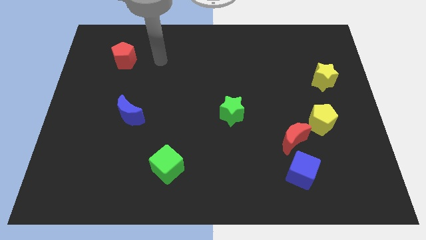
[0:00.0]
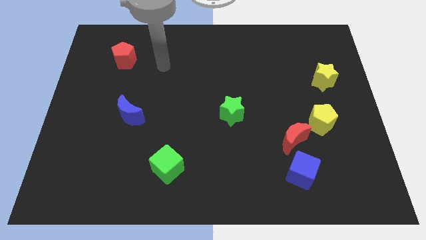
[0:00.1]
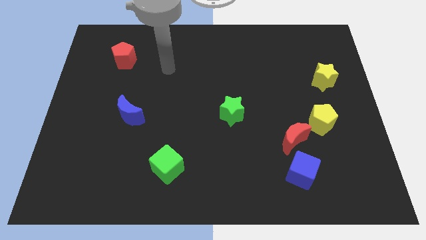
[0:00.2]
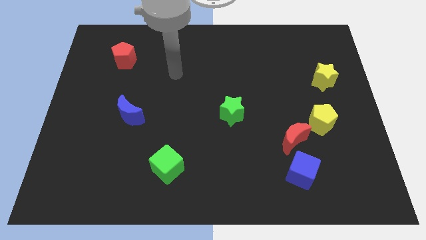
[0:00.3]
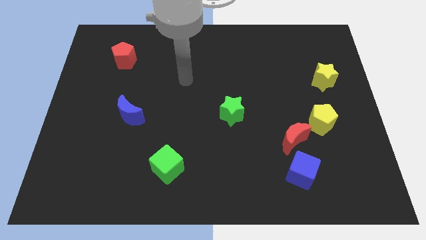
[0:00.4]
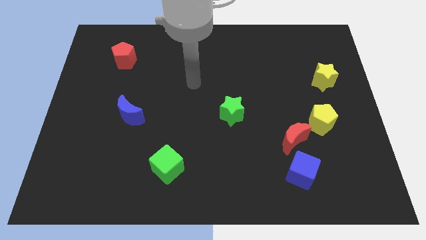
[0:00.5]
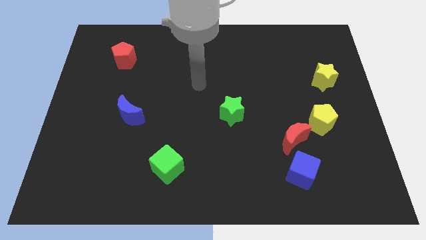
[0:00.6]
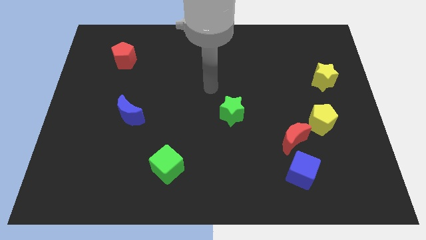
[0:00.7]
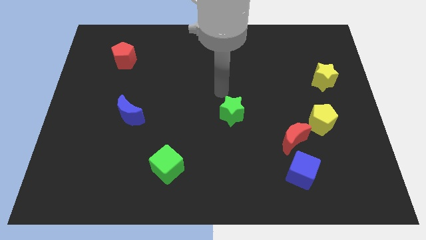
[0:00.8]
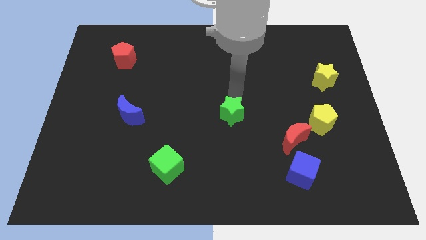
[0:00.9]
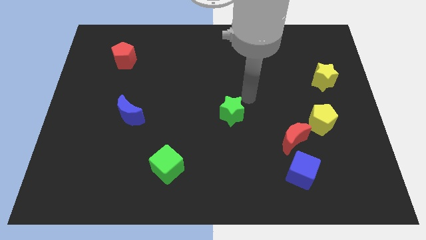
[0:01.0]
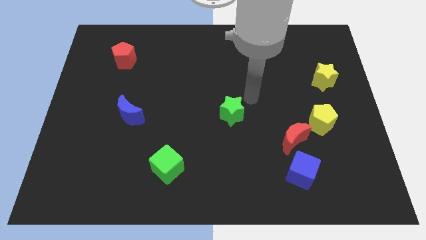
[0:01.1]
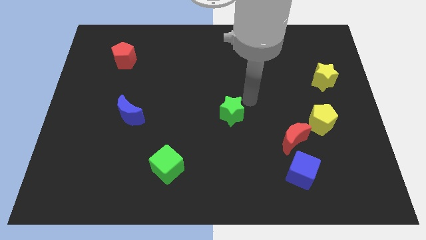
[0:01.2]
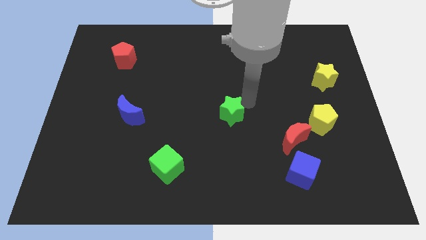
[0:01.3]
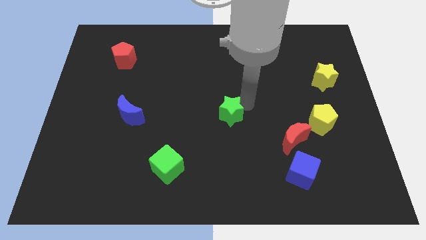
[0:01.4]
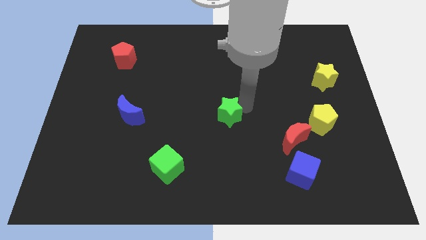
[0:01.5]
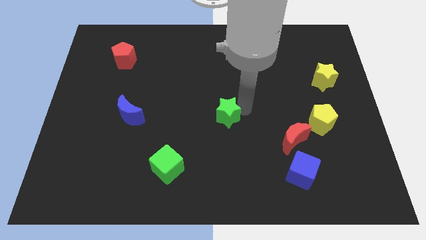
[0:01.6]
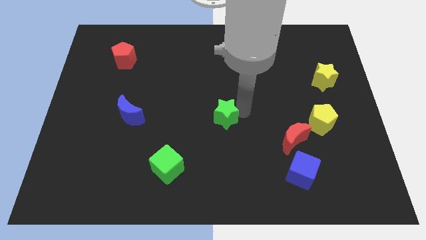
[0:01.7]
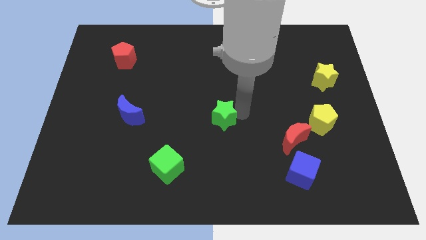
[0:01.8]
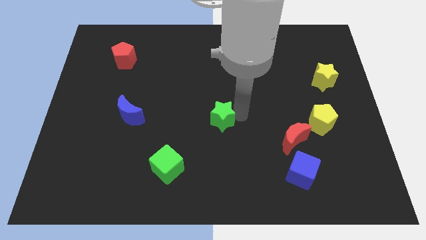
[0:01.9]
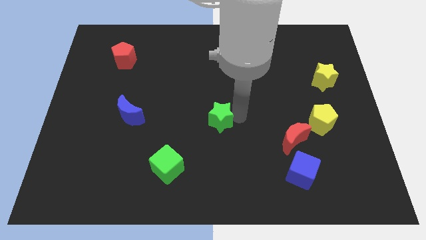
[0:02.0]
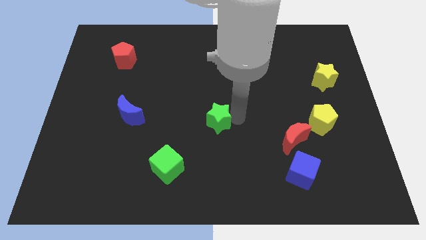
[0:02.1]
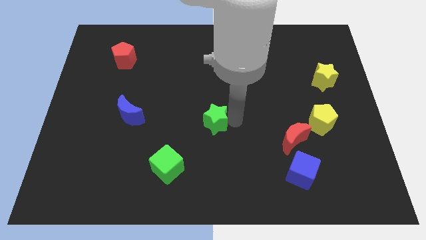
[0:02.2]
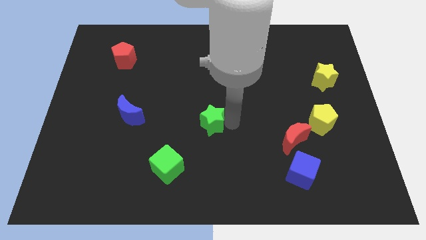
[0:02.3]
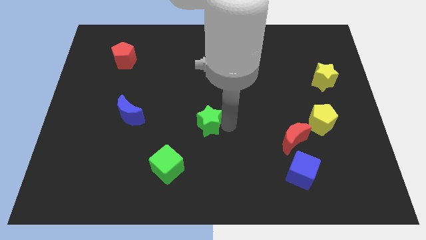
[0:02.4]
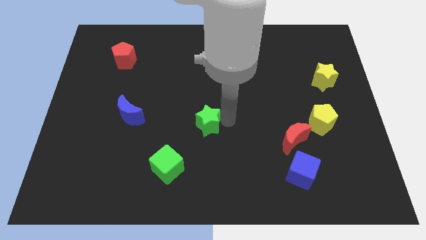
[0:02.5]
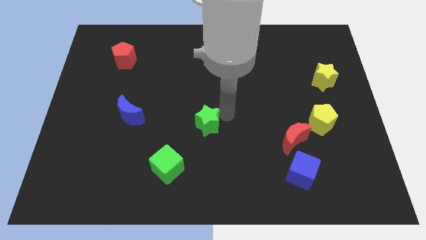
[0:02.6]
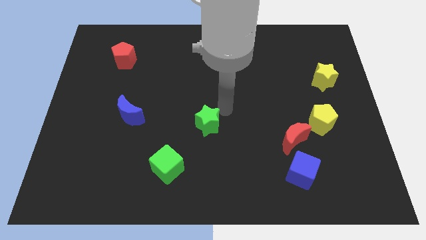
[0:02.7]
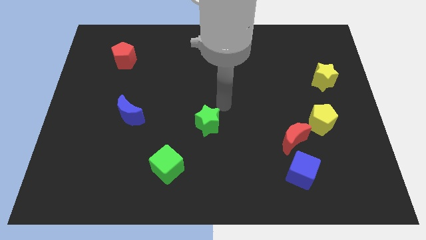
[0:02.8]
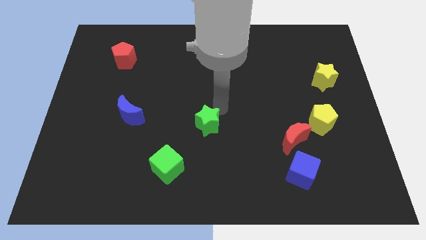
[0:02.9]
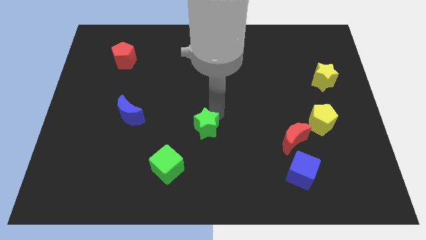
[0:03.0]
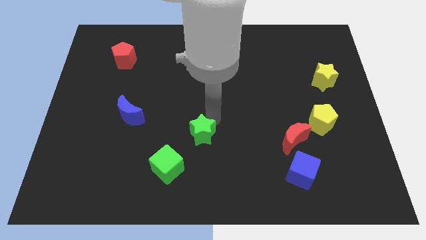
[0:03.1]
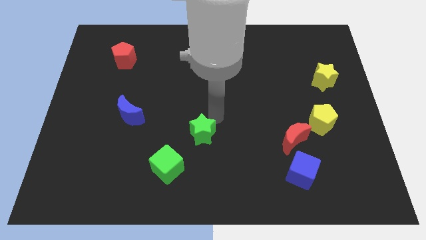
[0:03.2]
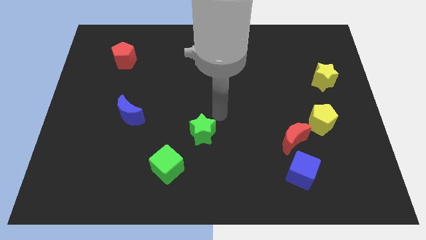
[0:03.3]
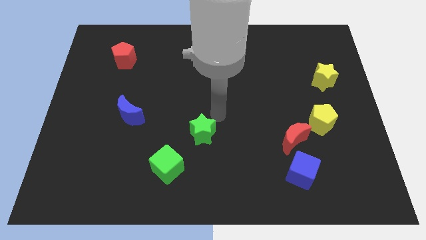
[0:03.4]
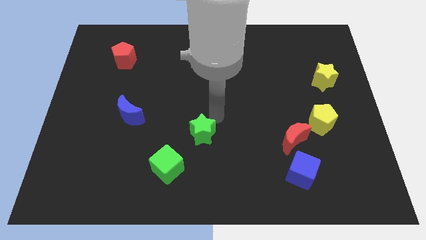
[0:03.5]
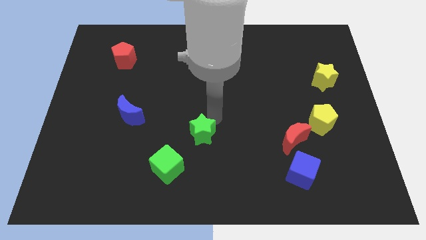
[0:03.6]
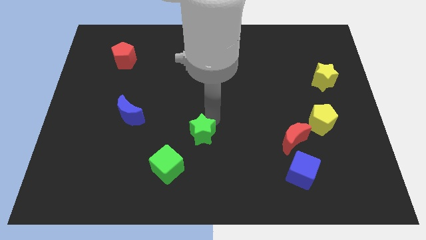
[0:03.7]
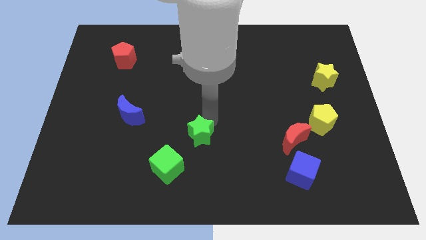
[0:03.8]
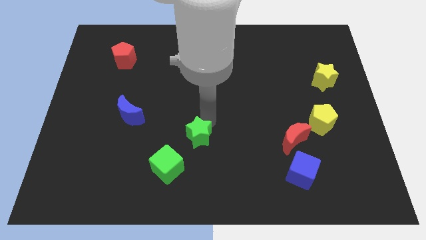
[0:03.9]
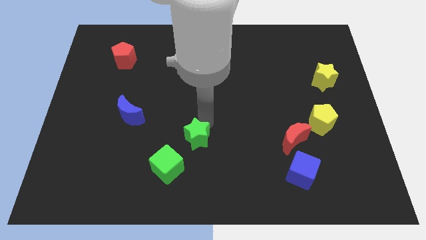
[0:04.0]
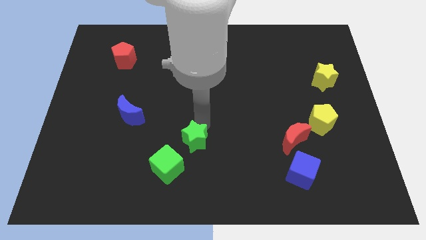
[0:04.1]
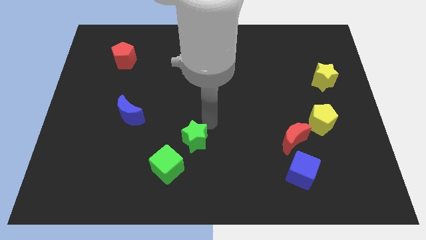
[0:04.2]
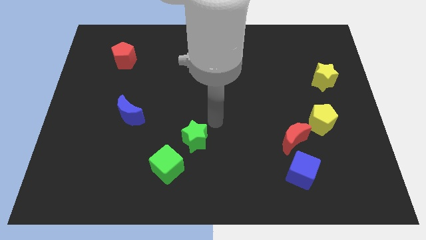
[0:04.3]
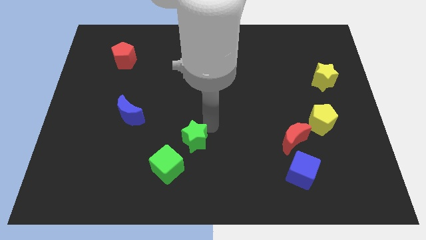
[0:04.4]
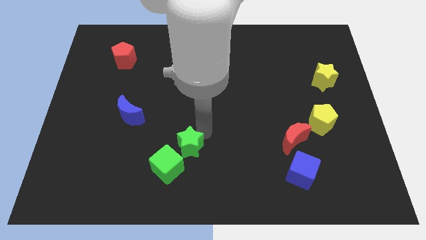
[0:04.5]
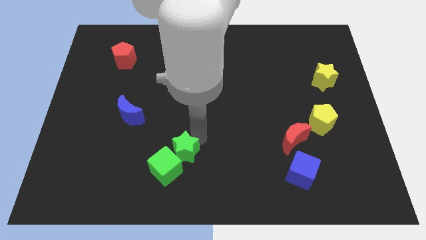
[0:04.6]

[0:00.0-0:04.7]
move the green star close to the green cube

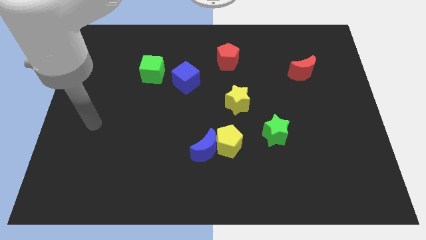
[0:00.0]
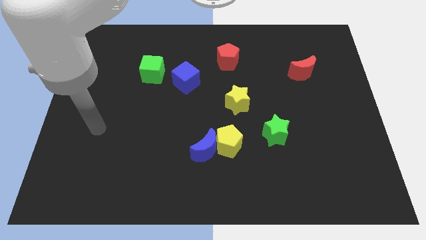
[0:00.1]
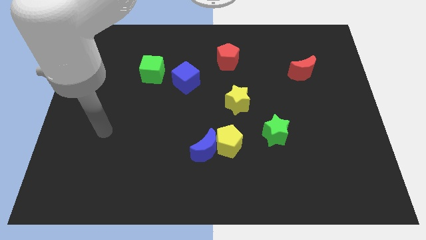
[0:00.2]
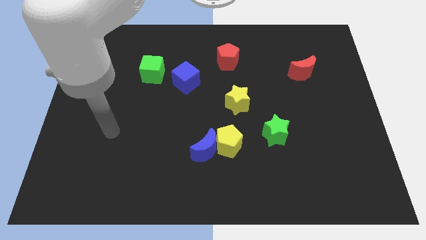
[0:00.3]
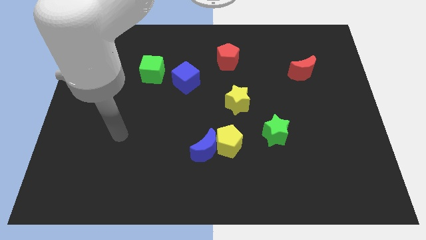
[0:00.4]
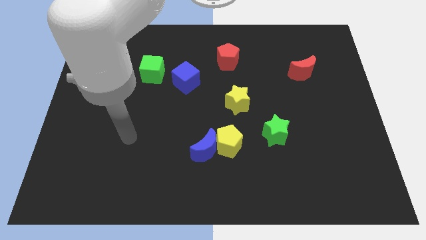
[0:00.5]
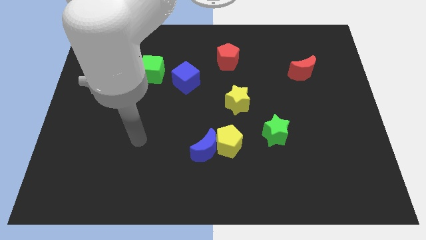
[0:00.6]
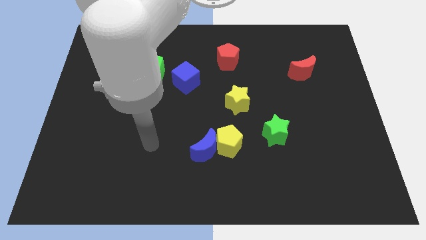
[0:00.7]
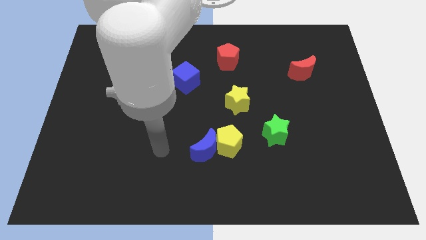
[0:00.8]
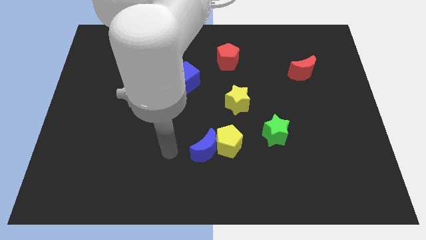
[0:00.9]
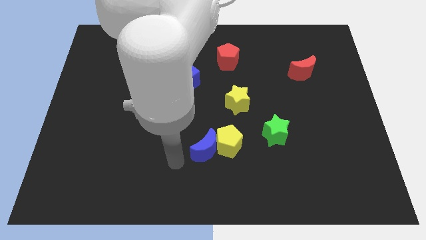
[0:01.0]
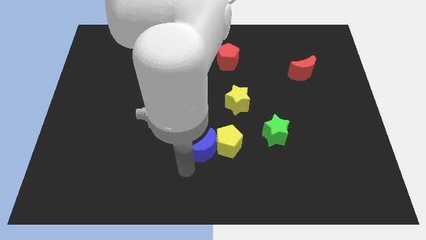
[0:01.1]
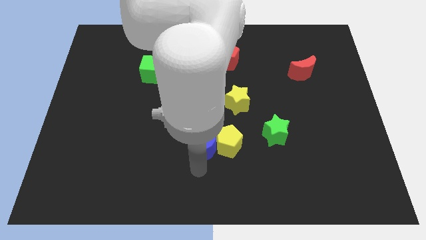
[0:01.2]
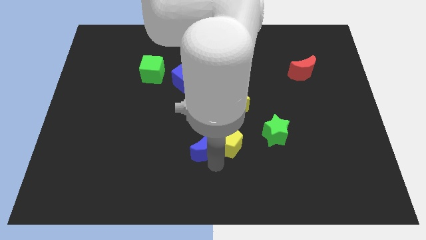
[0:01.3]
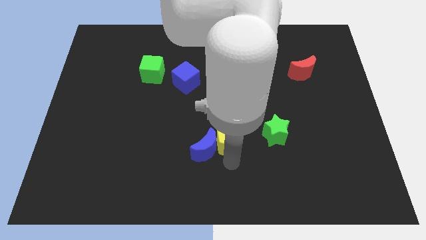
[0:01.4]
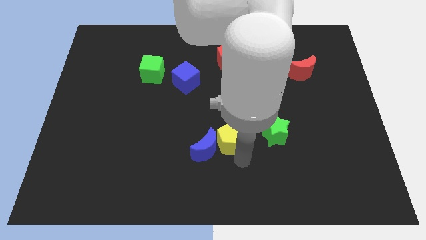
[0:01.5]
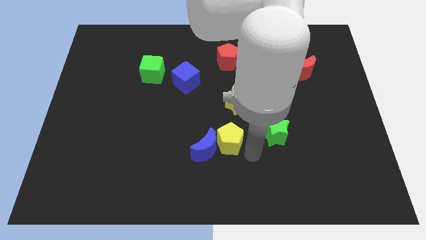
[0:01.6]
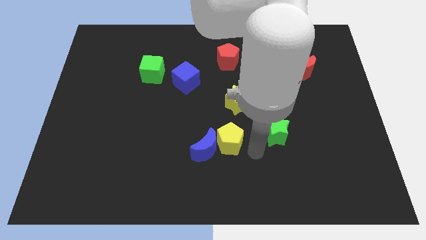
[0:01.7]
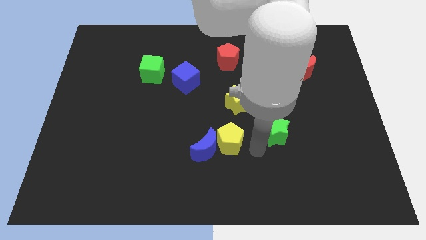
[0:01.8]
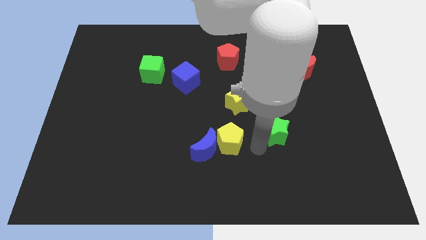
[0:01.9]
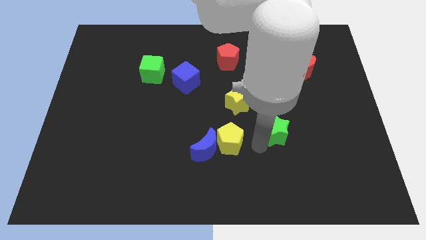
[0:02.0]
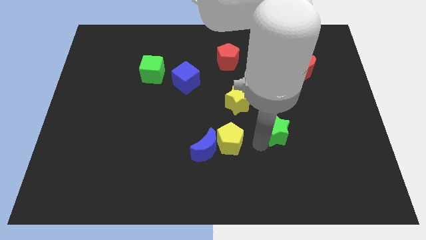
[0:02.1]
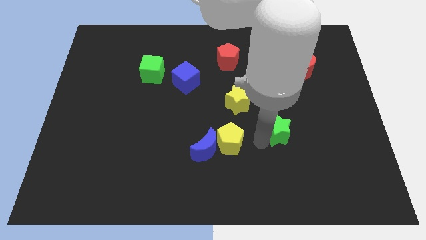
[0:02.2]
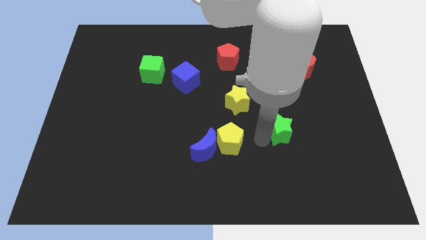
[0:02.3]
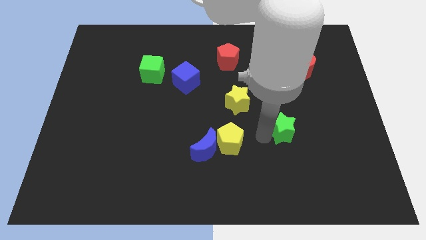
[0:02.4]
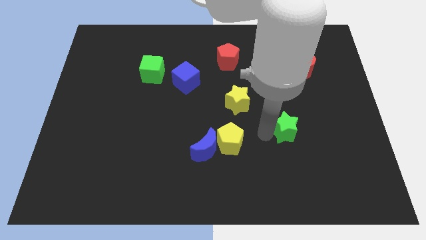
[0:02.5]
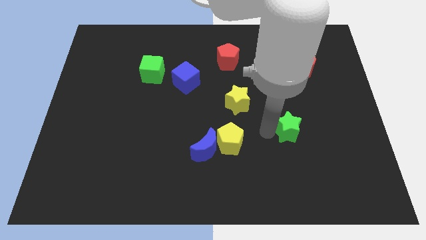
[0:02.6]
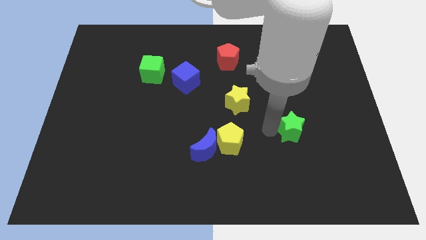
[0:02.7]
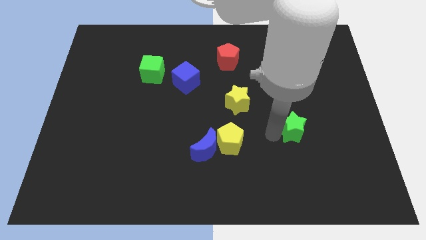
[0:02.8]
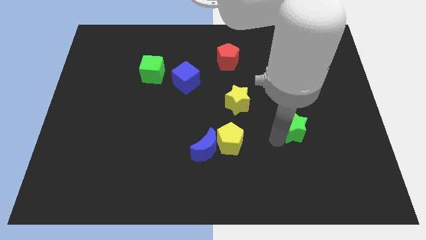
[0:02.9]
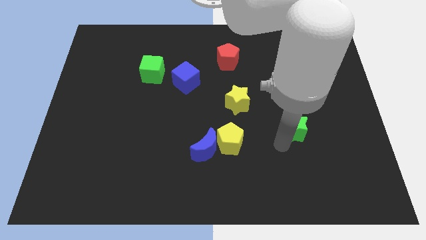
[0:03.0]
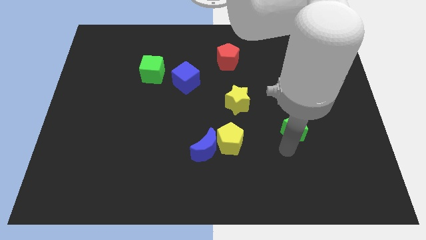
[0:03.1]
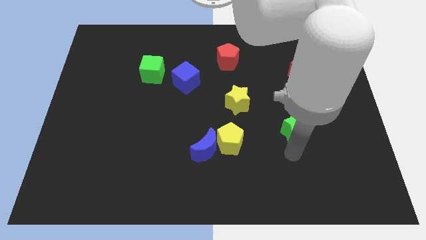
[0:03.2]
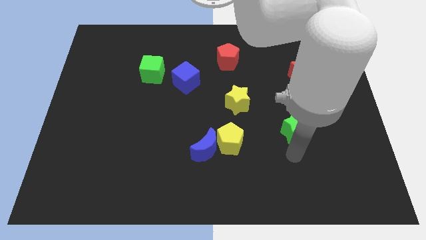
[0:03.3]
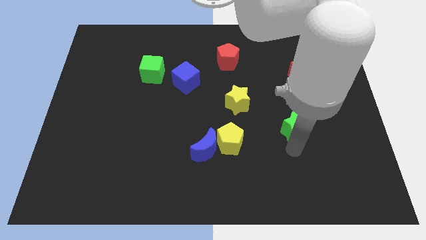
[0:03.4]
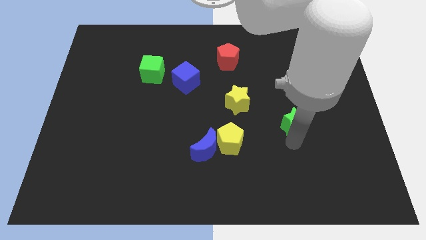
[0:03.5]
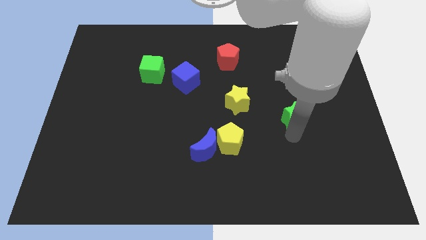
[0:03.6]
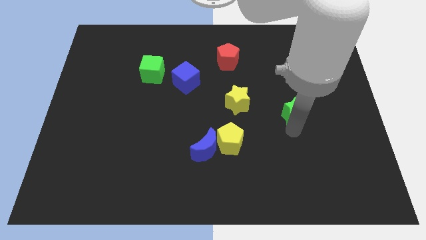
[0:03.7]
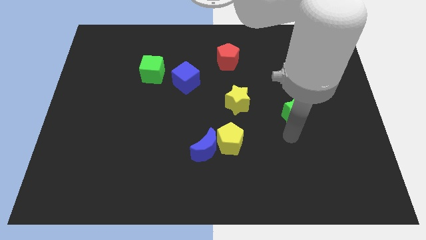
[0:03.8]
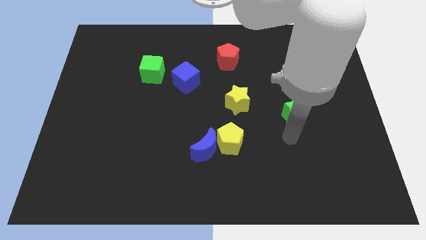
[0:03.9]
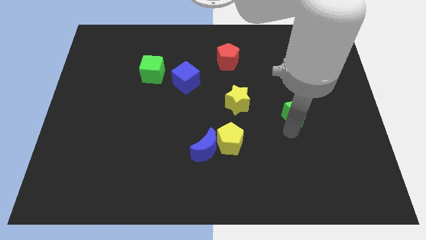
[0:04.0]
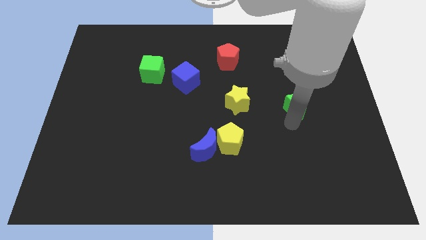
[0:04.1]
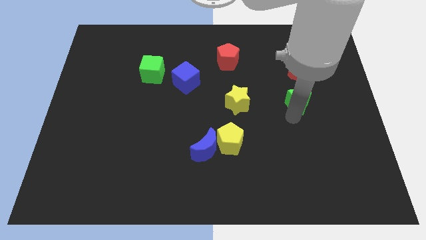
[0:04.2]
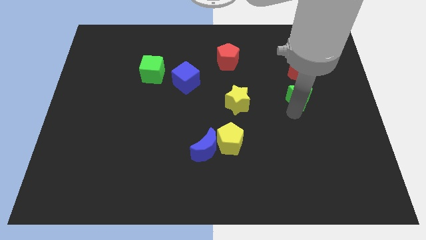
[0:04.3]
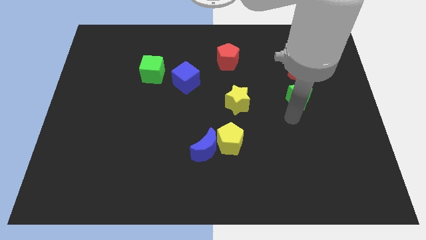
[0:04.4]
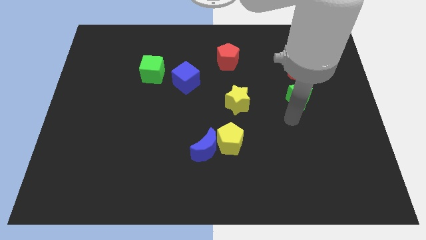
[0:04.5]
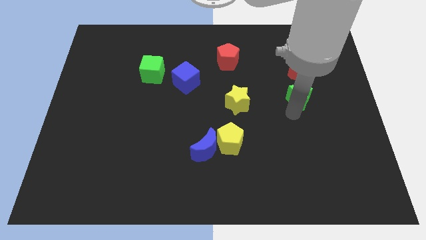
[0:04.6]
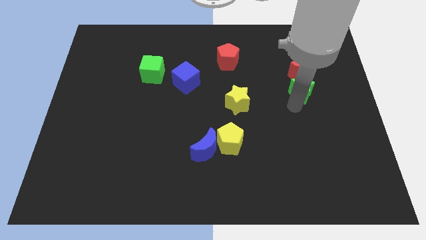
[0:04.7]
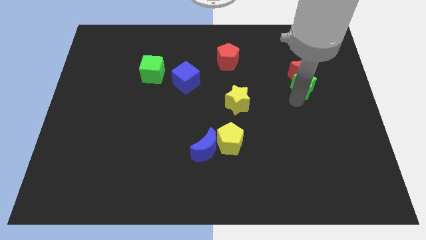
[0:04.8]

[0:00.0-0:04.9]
slide the green star to the red moon
